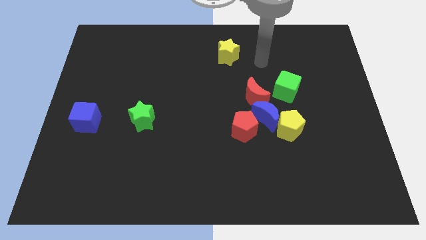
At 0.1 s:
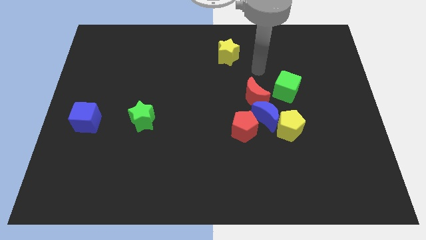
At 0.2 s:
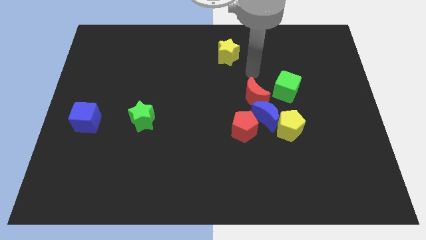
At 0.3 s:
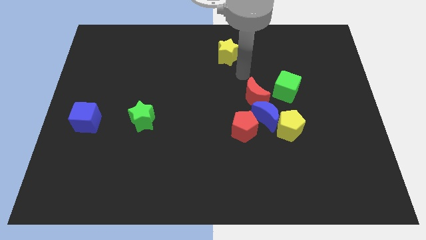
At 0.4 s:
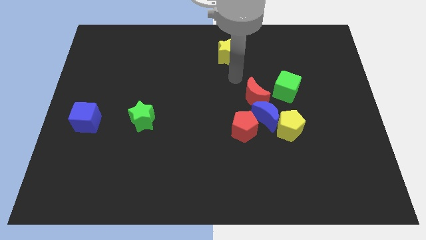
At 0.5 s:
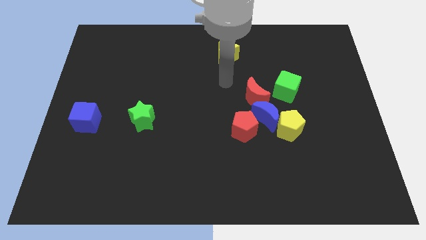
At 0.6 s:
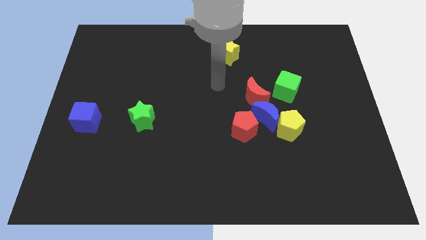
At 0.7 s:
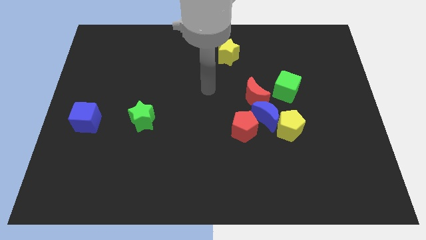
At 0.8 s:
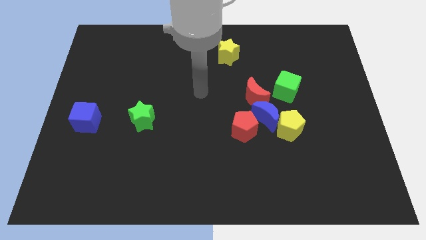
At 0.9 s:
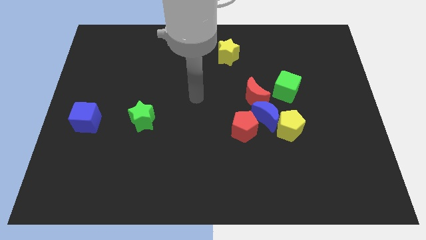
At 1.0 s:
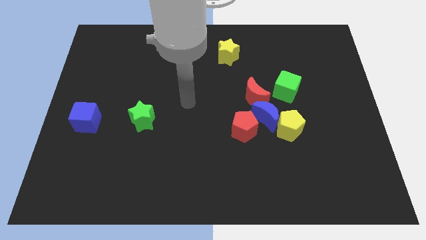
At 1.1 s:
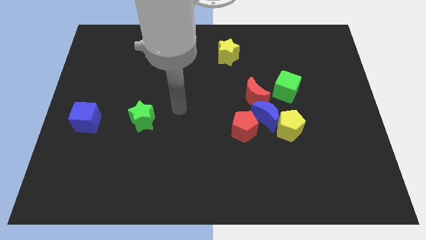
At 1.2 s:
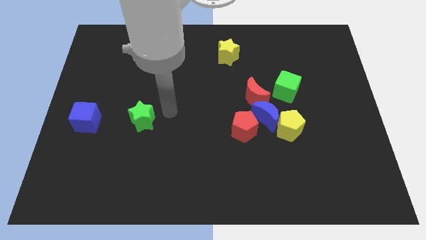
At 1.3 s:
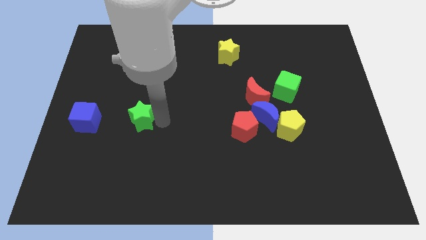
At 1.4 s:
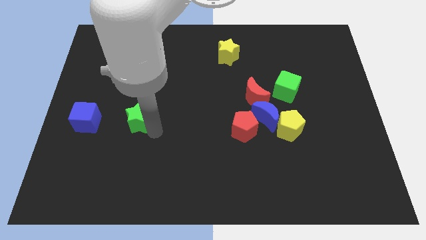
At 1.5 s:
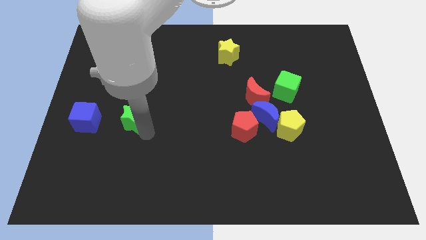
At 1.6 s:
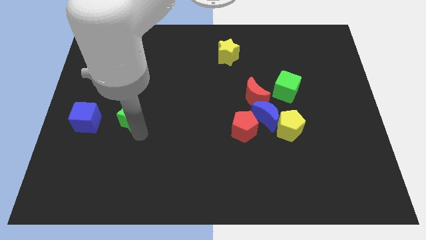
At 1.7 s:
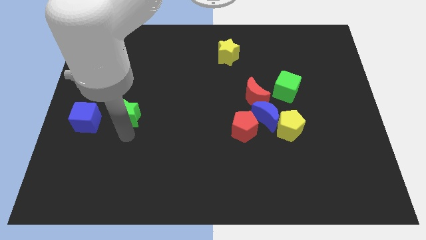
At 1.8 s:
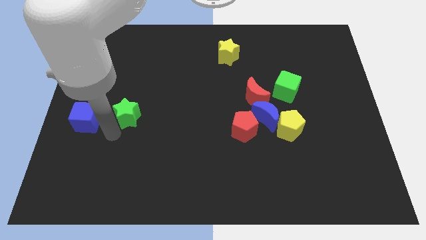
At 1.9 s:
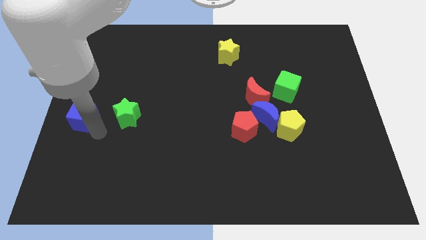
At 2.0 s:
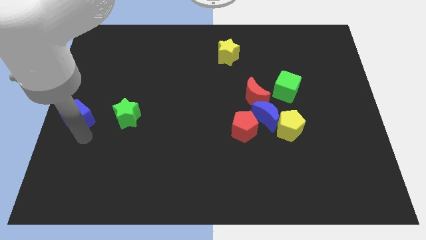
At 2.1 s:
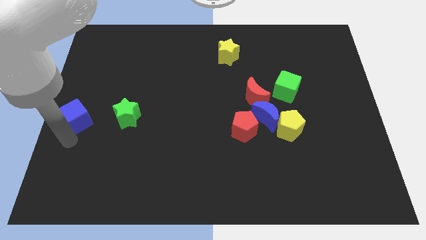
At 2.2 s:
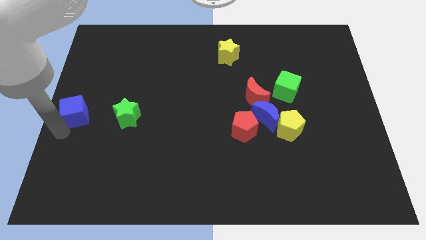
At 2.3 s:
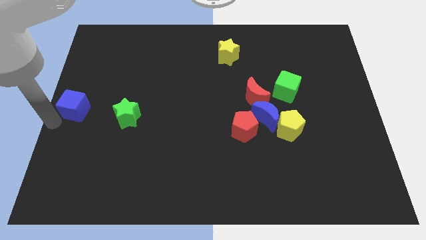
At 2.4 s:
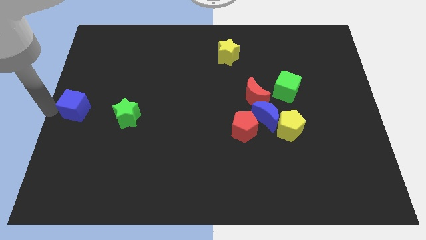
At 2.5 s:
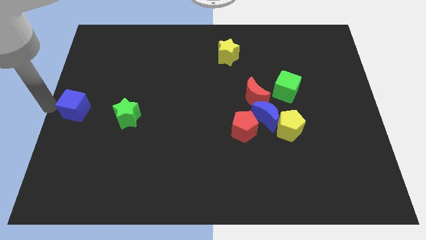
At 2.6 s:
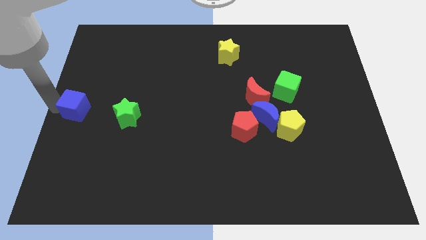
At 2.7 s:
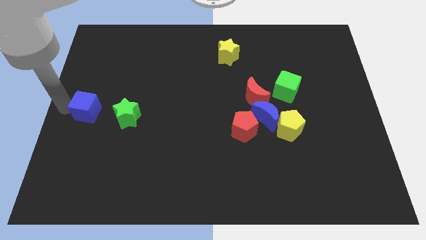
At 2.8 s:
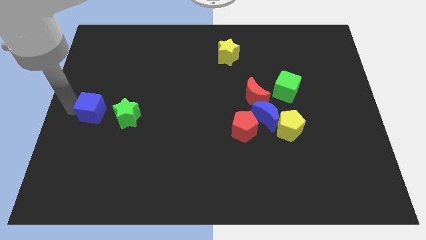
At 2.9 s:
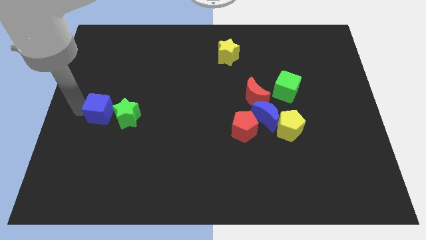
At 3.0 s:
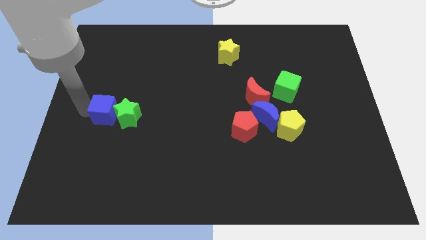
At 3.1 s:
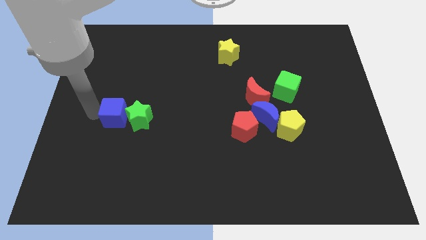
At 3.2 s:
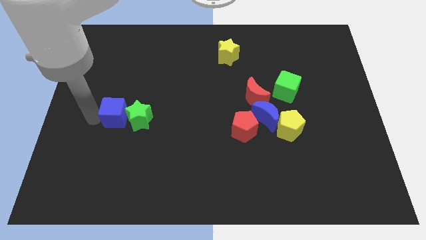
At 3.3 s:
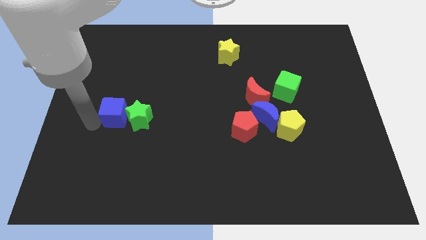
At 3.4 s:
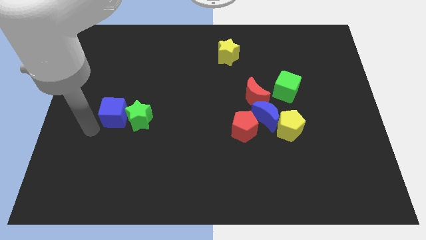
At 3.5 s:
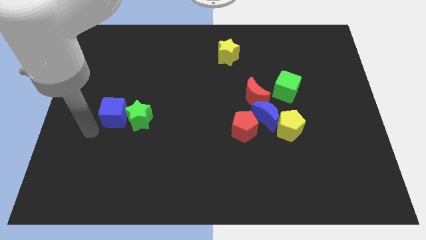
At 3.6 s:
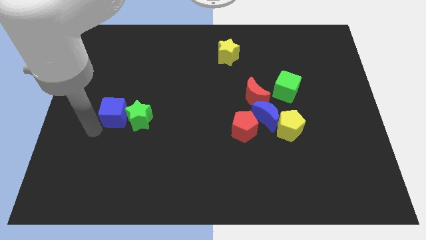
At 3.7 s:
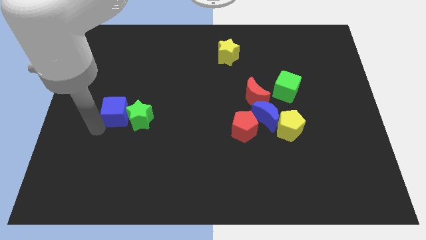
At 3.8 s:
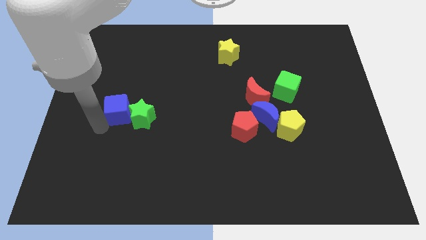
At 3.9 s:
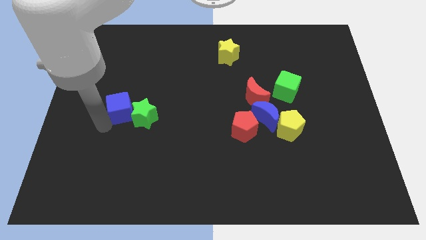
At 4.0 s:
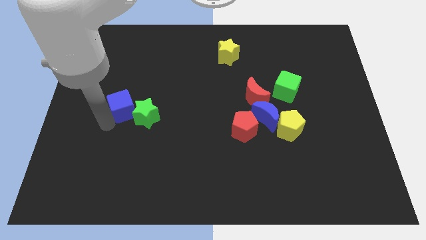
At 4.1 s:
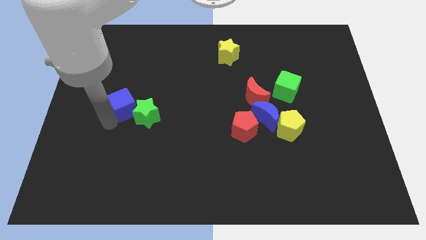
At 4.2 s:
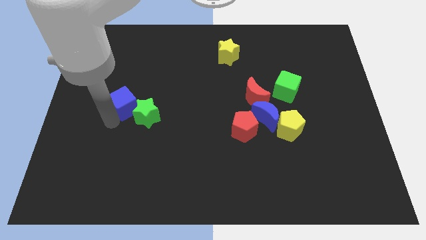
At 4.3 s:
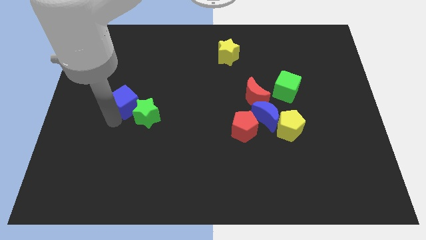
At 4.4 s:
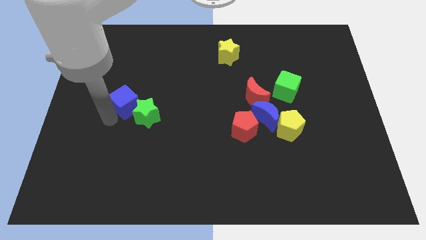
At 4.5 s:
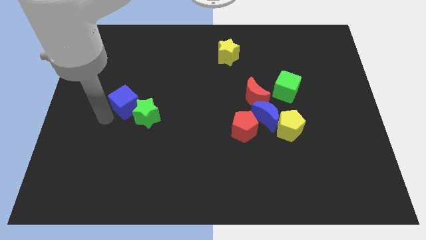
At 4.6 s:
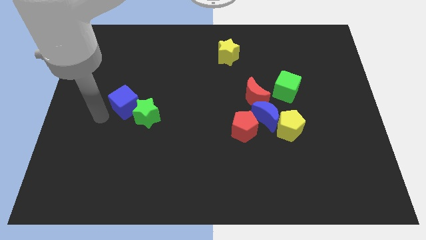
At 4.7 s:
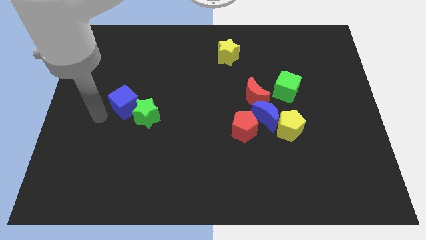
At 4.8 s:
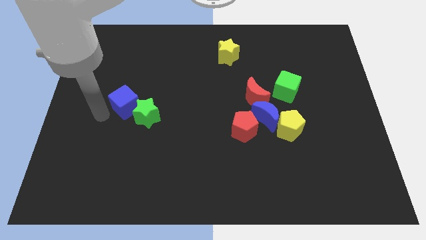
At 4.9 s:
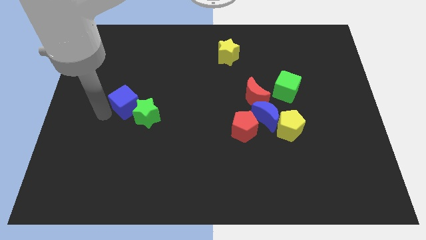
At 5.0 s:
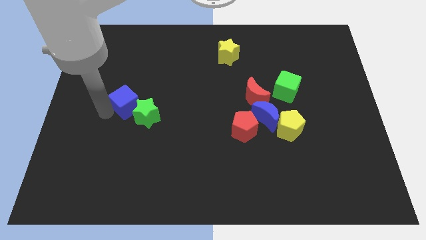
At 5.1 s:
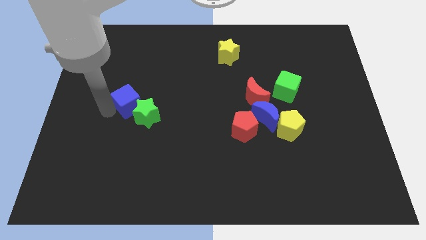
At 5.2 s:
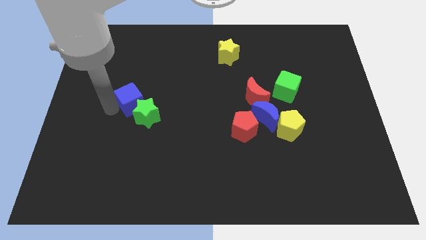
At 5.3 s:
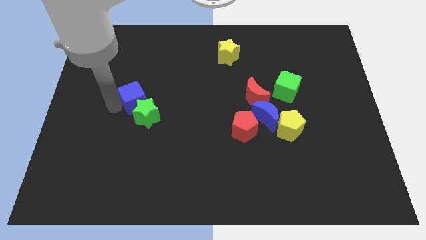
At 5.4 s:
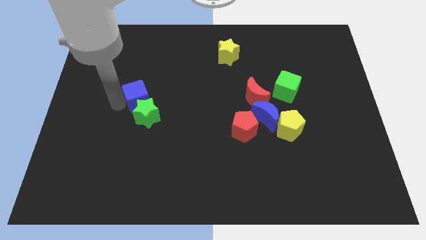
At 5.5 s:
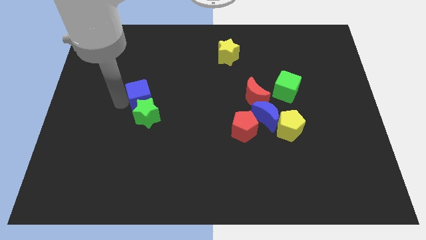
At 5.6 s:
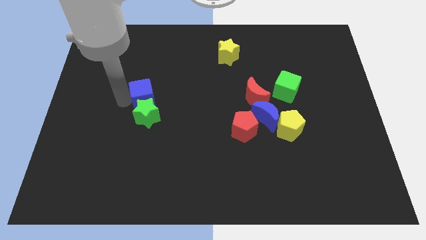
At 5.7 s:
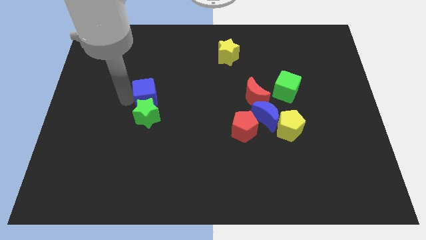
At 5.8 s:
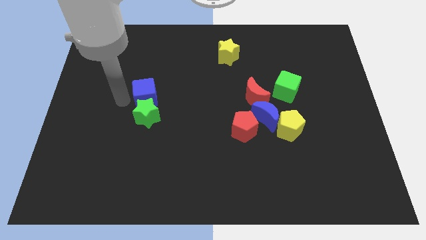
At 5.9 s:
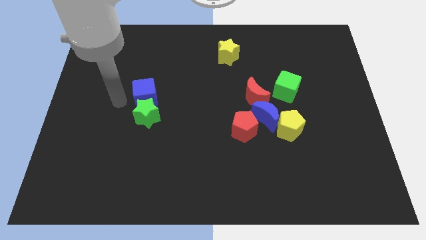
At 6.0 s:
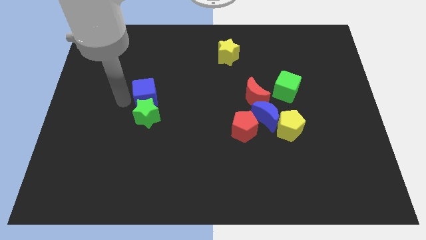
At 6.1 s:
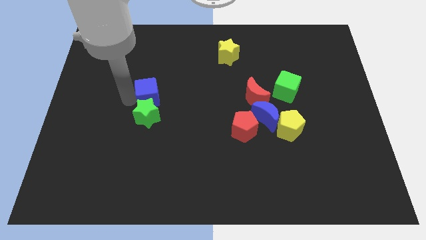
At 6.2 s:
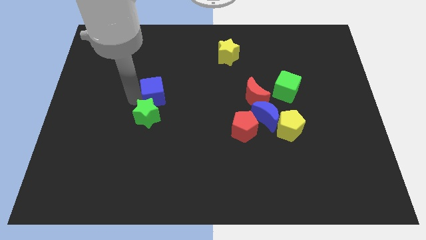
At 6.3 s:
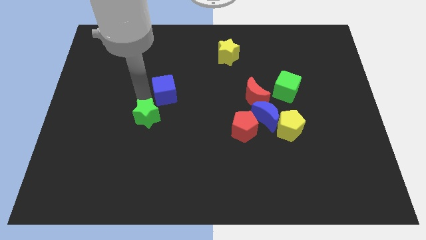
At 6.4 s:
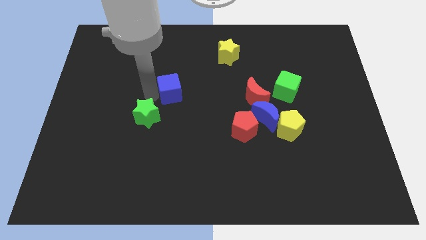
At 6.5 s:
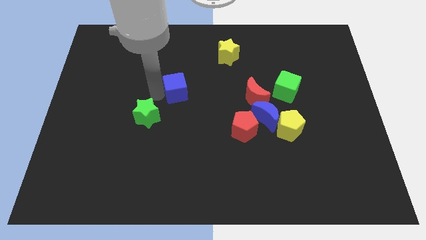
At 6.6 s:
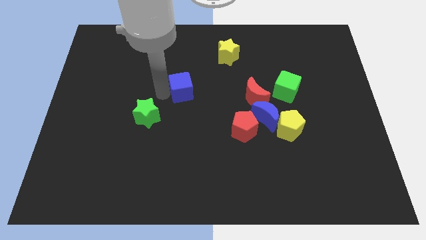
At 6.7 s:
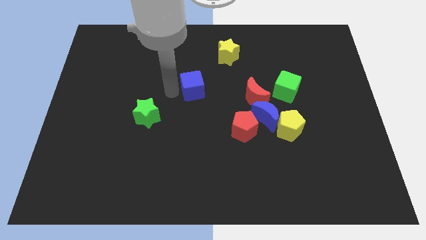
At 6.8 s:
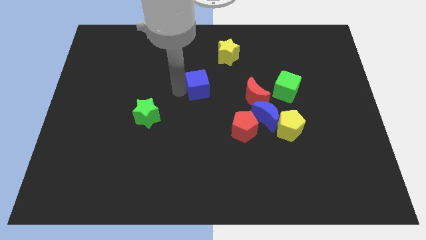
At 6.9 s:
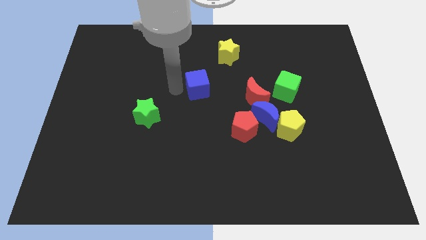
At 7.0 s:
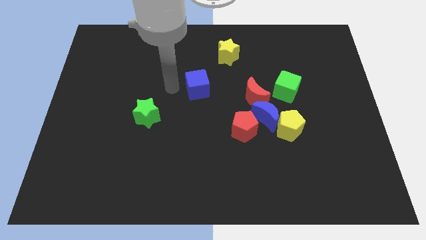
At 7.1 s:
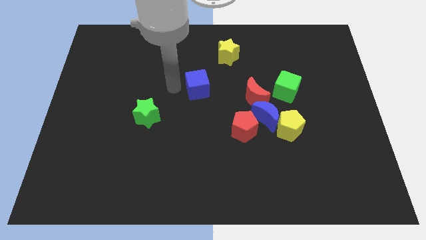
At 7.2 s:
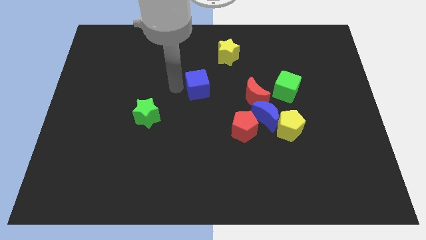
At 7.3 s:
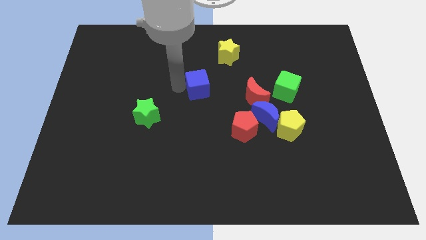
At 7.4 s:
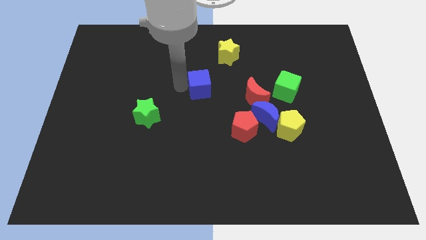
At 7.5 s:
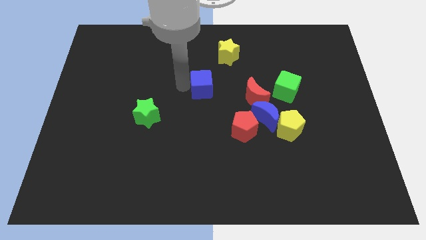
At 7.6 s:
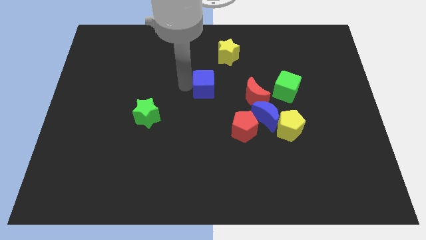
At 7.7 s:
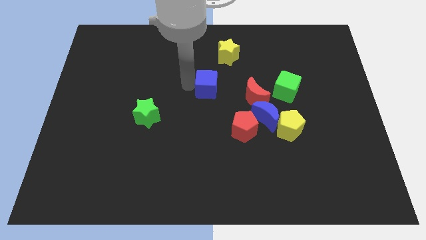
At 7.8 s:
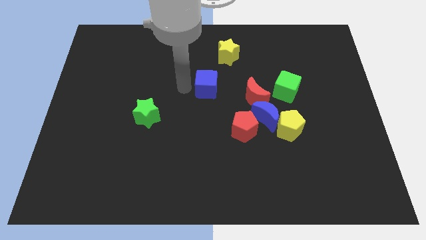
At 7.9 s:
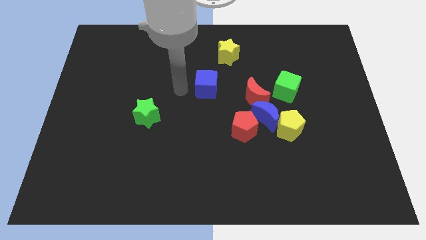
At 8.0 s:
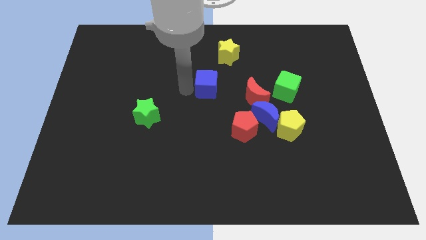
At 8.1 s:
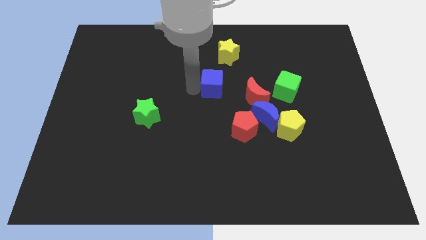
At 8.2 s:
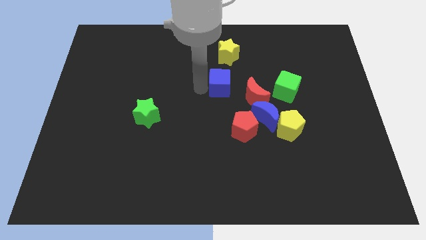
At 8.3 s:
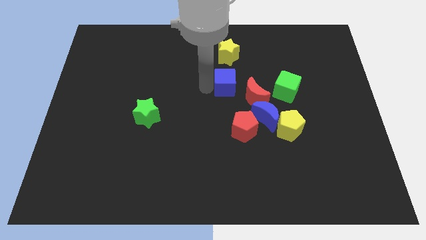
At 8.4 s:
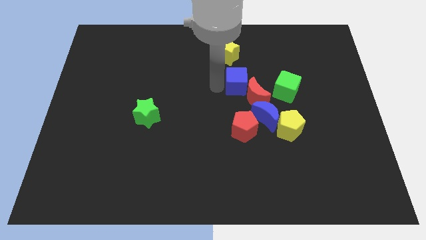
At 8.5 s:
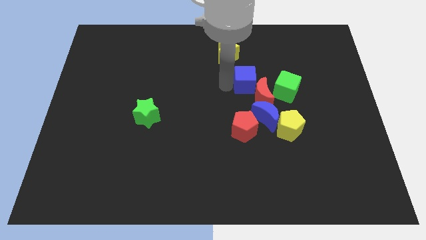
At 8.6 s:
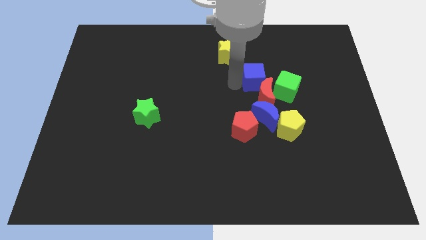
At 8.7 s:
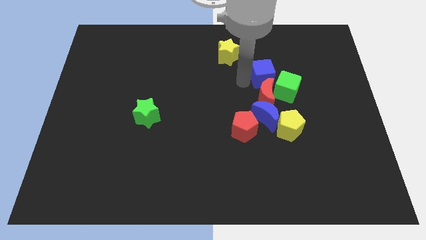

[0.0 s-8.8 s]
move the blue cube to the top right side of the red moon
